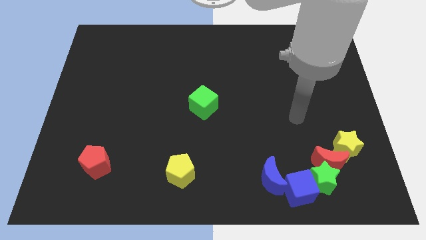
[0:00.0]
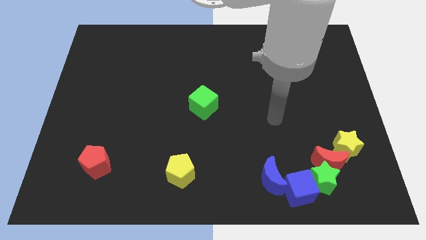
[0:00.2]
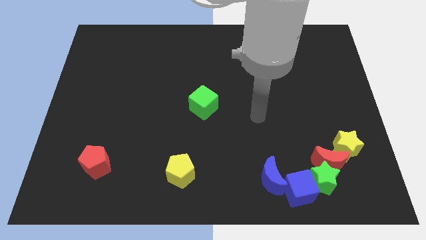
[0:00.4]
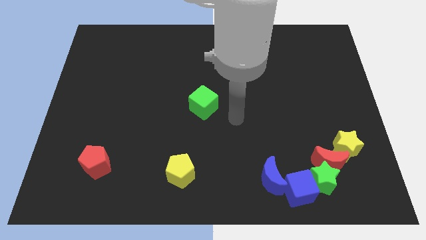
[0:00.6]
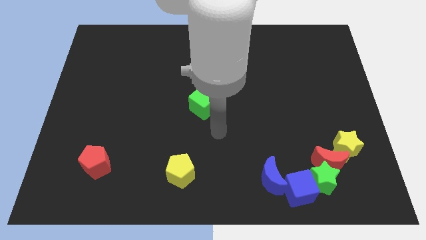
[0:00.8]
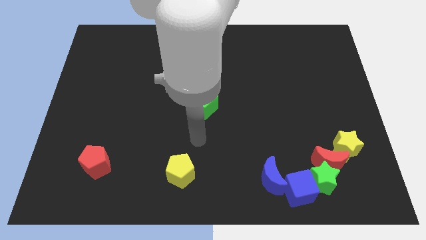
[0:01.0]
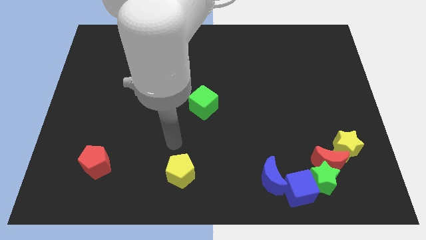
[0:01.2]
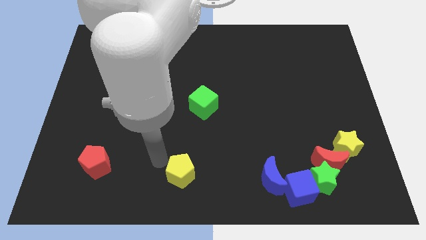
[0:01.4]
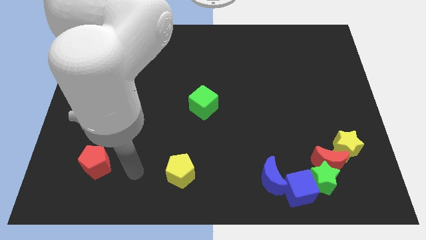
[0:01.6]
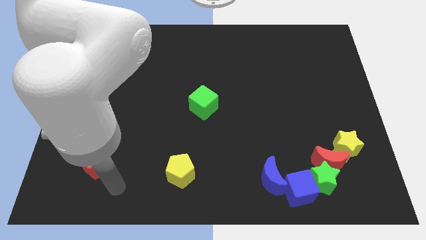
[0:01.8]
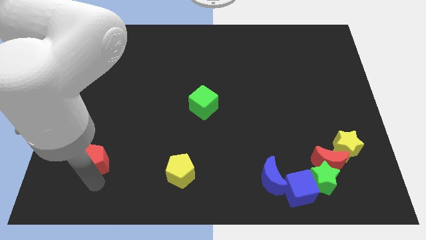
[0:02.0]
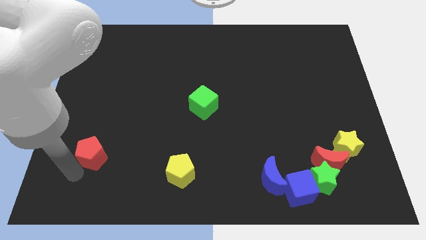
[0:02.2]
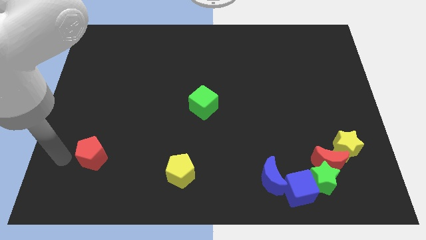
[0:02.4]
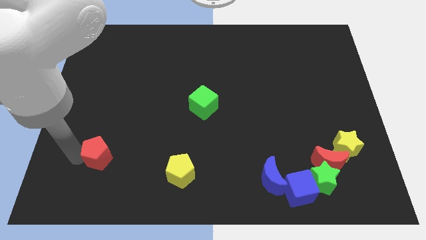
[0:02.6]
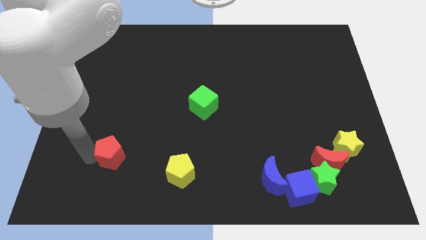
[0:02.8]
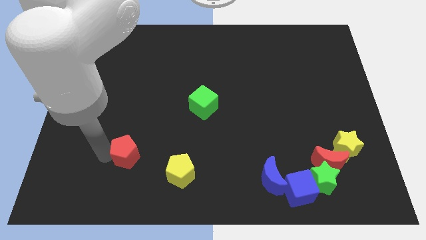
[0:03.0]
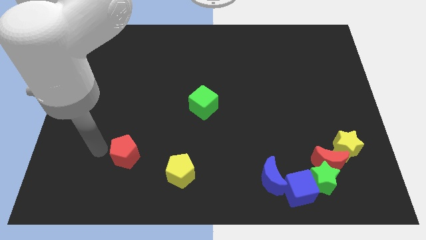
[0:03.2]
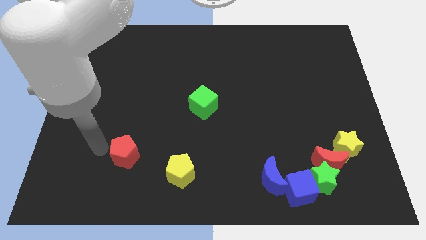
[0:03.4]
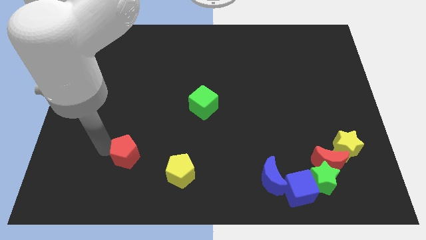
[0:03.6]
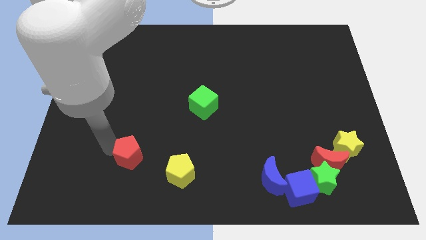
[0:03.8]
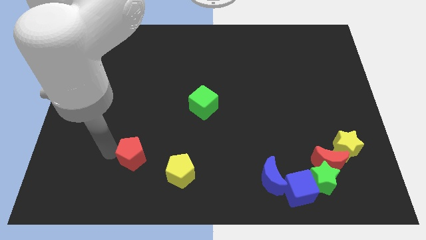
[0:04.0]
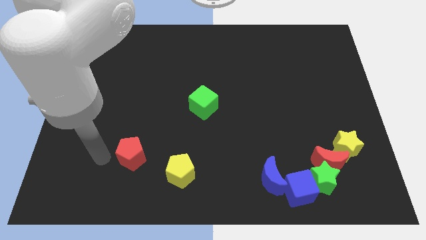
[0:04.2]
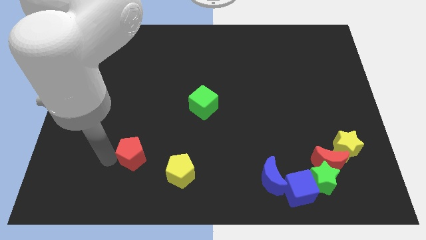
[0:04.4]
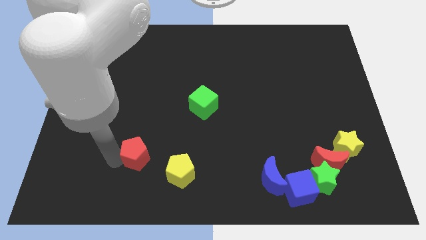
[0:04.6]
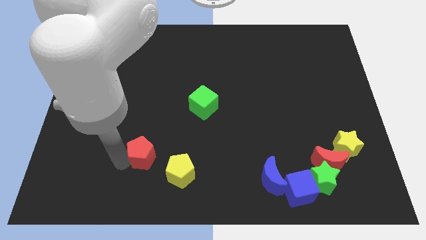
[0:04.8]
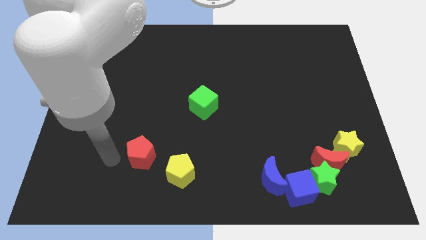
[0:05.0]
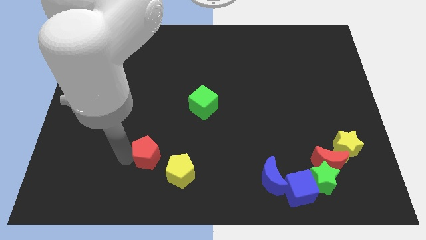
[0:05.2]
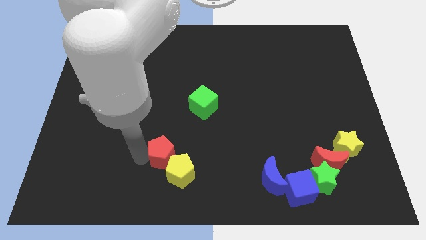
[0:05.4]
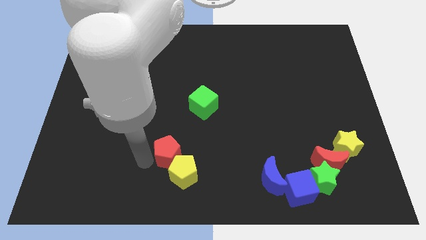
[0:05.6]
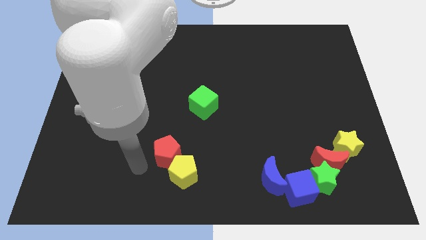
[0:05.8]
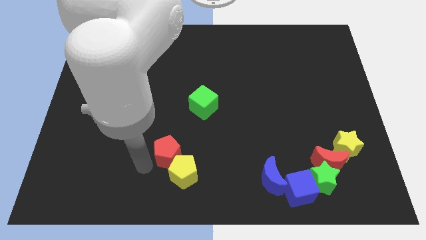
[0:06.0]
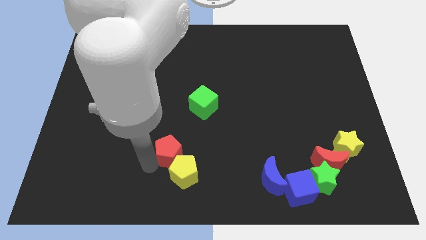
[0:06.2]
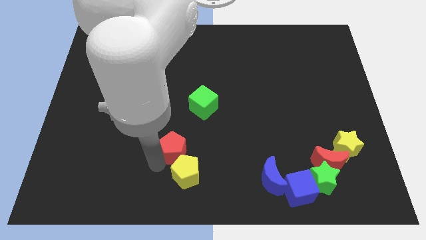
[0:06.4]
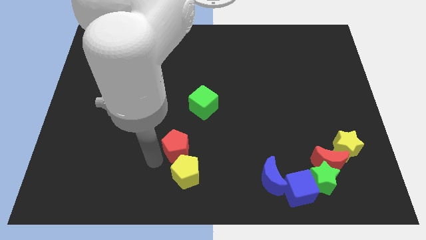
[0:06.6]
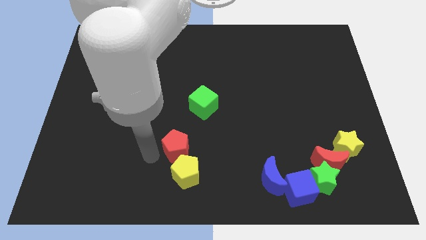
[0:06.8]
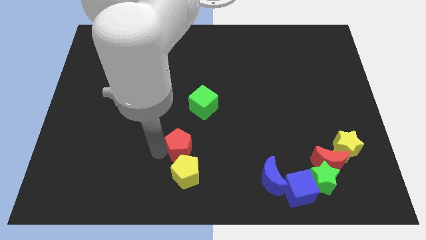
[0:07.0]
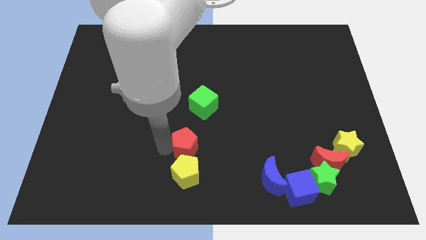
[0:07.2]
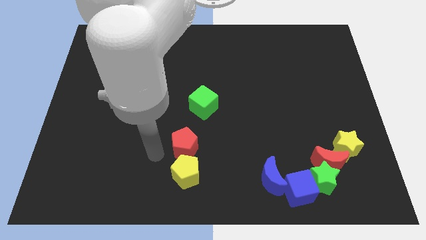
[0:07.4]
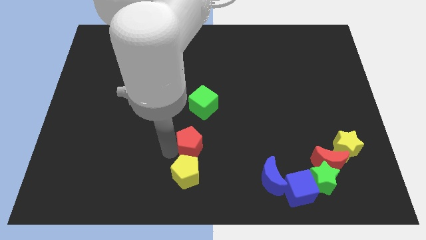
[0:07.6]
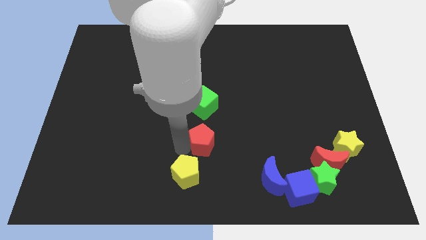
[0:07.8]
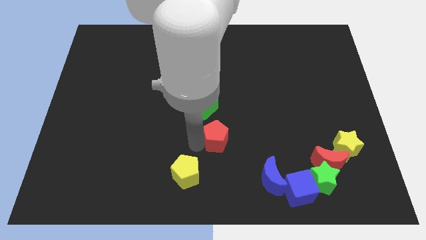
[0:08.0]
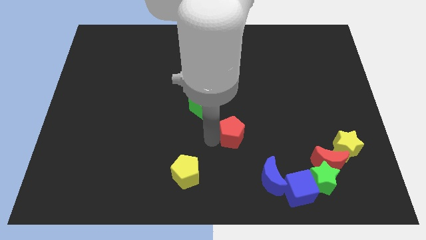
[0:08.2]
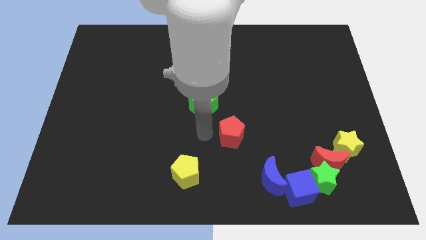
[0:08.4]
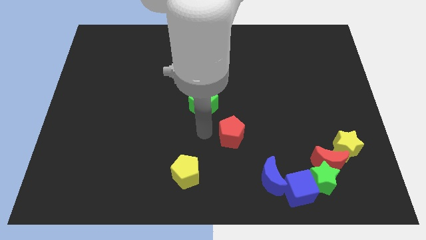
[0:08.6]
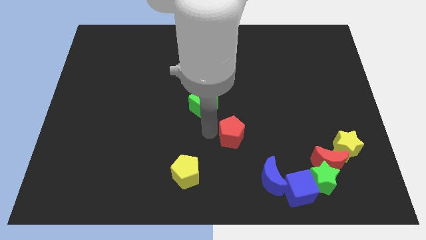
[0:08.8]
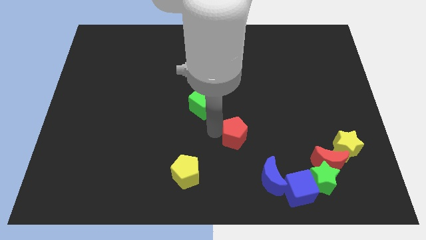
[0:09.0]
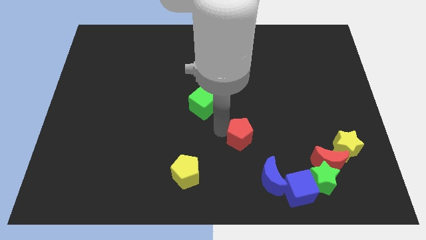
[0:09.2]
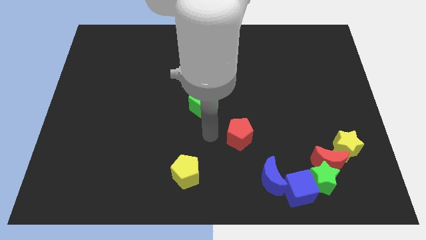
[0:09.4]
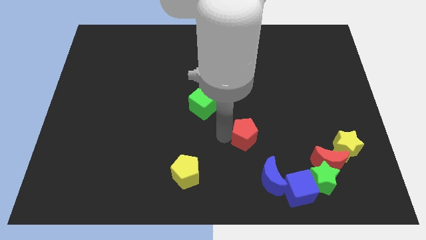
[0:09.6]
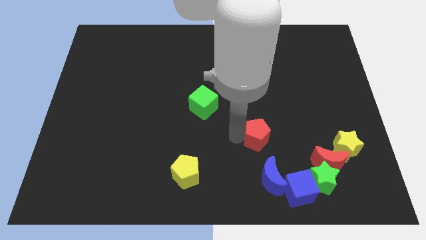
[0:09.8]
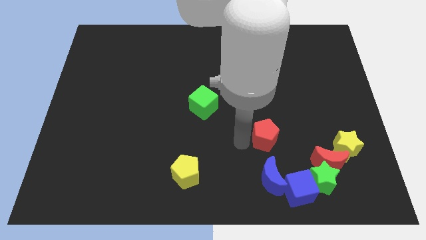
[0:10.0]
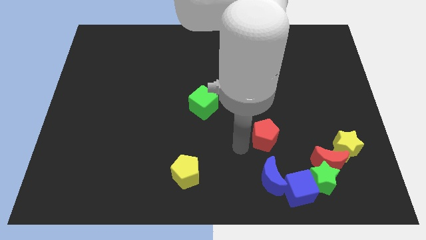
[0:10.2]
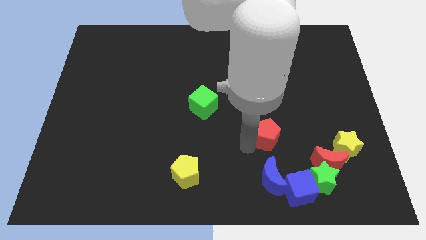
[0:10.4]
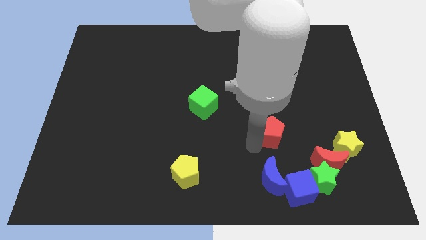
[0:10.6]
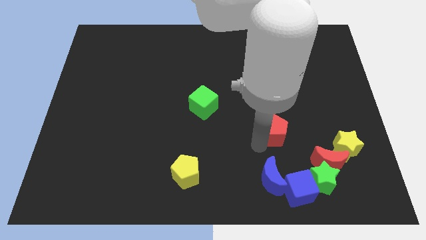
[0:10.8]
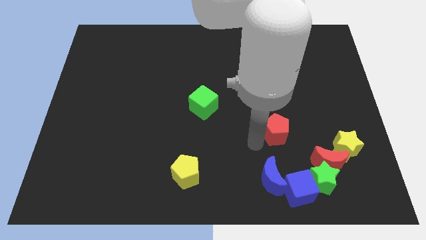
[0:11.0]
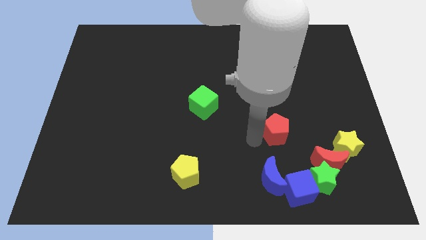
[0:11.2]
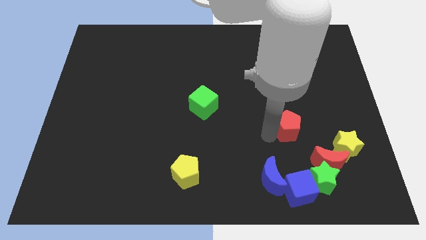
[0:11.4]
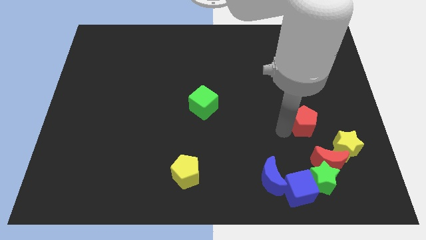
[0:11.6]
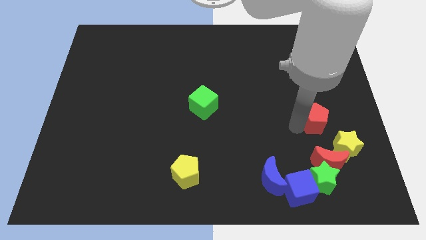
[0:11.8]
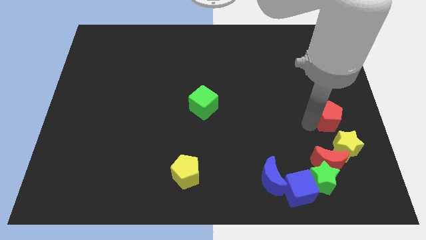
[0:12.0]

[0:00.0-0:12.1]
put the red pentagon to the right side of the board

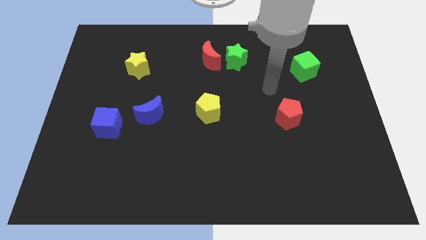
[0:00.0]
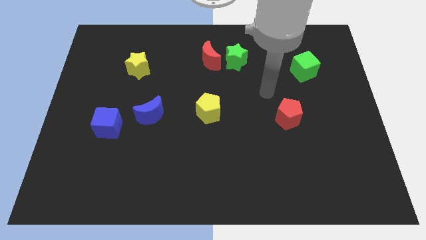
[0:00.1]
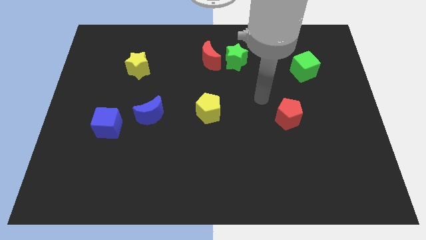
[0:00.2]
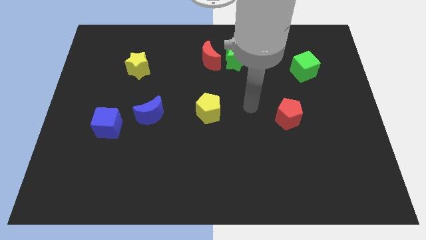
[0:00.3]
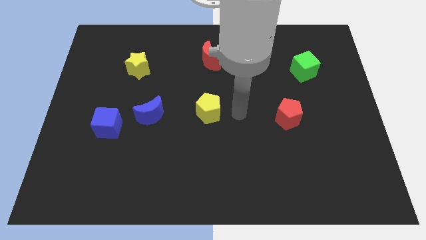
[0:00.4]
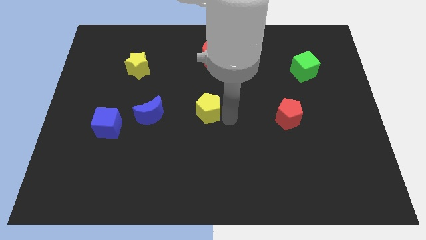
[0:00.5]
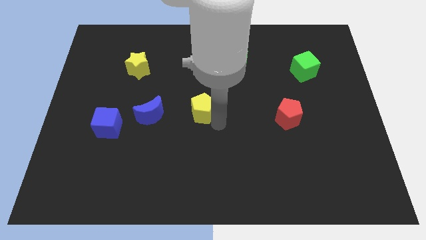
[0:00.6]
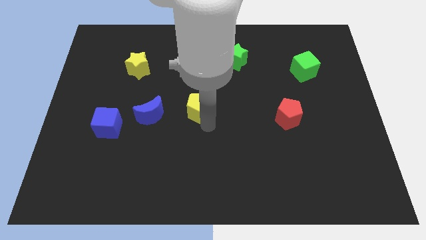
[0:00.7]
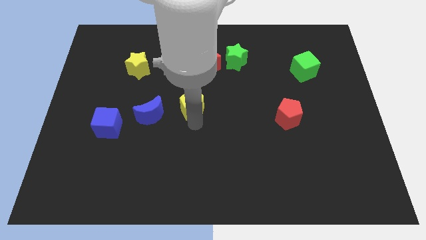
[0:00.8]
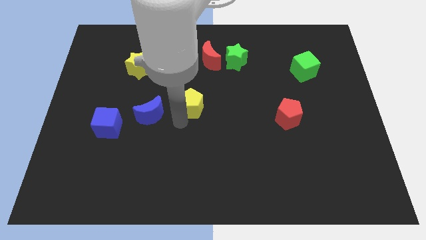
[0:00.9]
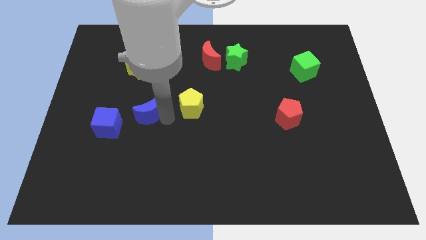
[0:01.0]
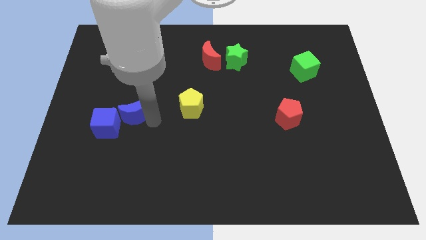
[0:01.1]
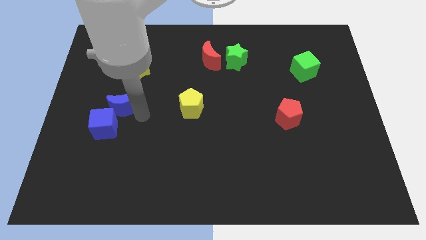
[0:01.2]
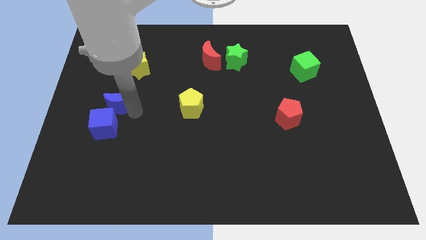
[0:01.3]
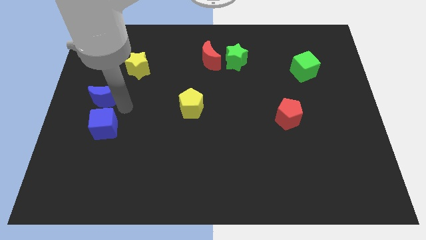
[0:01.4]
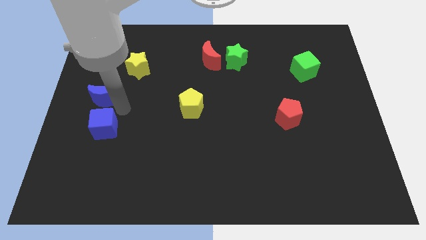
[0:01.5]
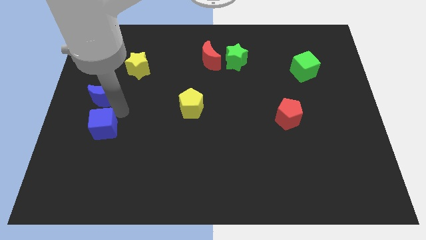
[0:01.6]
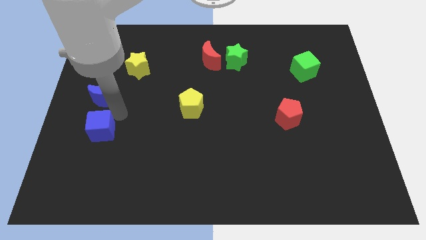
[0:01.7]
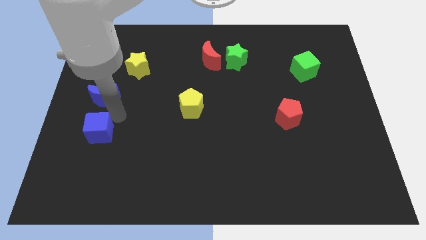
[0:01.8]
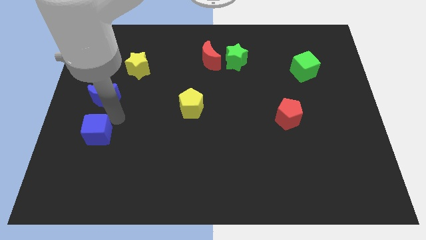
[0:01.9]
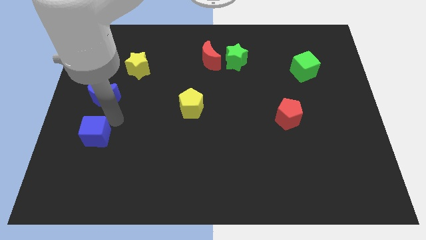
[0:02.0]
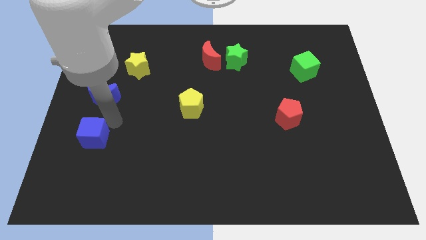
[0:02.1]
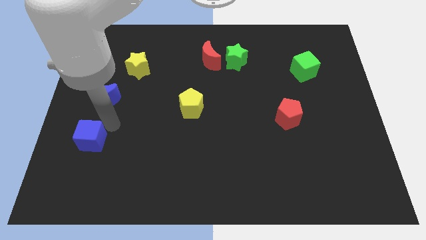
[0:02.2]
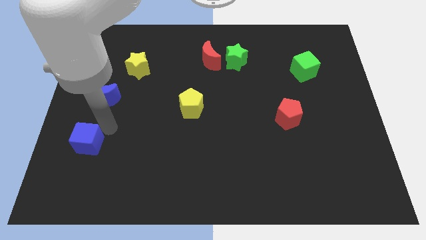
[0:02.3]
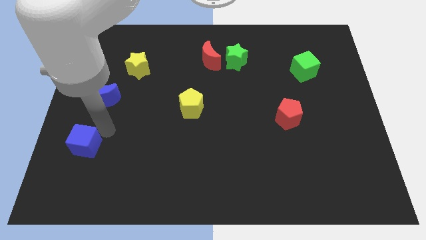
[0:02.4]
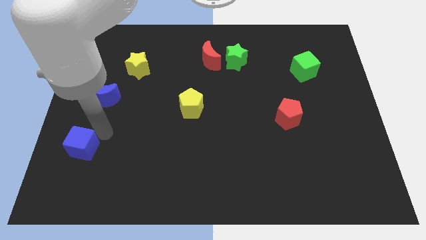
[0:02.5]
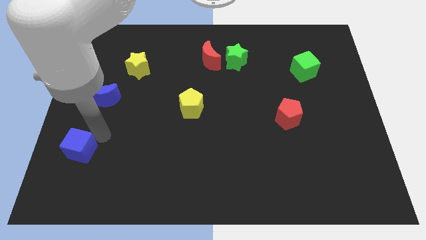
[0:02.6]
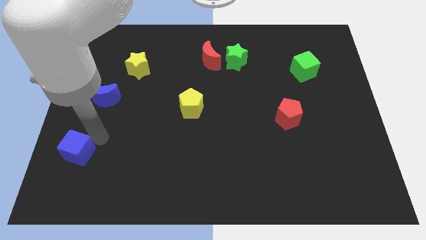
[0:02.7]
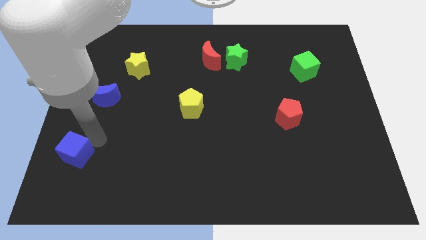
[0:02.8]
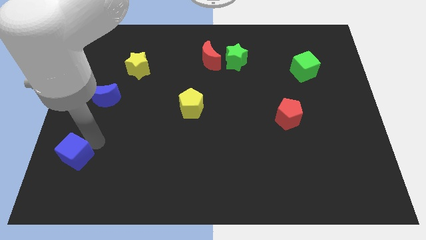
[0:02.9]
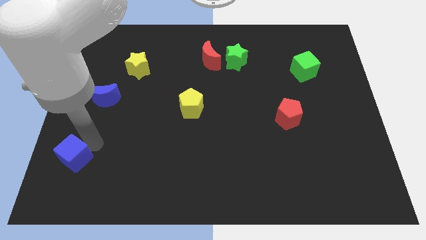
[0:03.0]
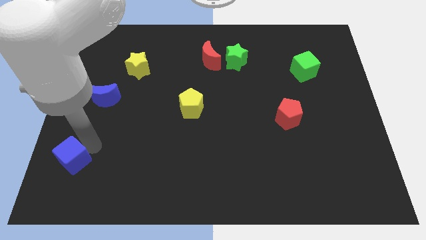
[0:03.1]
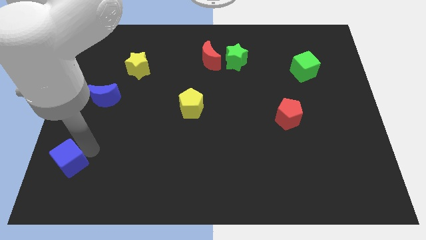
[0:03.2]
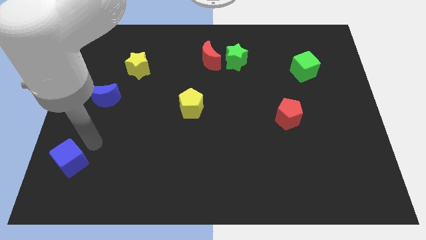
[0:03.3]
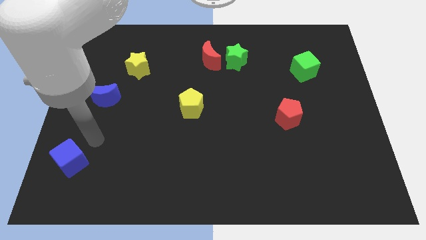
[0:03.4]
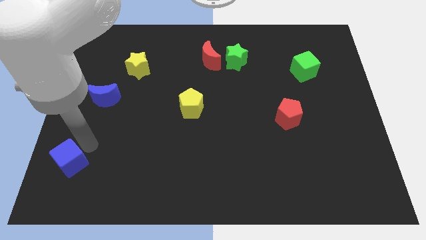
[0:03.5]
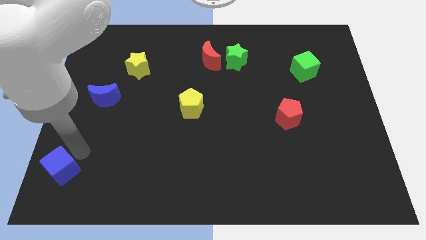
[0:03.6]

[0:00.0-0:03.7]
push the blue cube to the bottom left of the board
